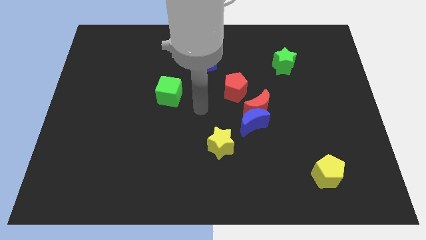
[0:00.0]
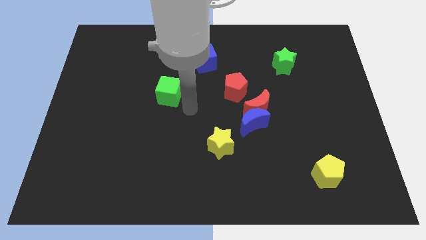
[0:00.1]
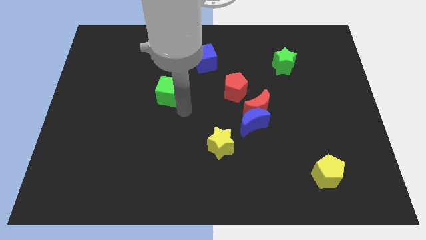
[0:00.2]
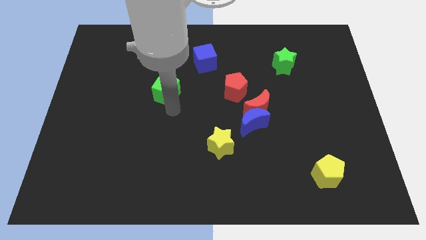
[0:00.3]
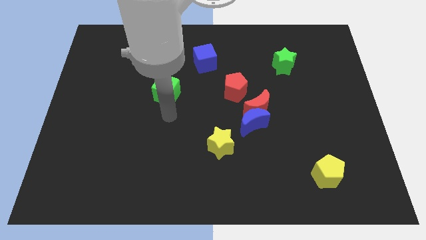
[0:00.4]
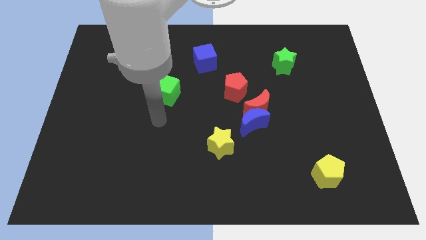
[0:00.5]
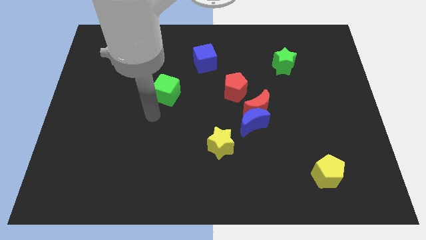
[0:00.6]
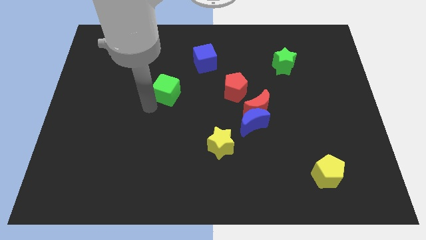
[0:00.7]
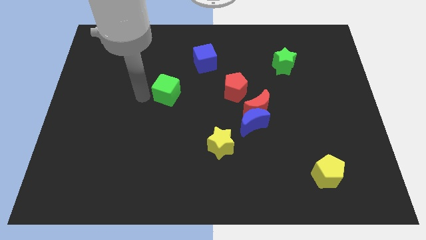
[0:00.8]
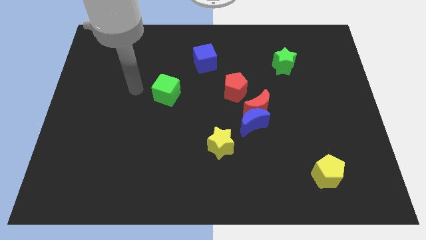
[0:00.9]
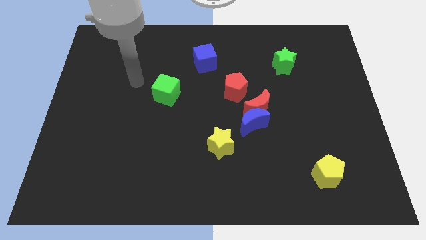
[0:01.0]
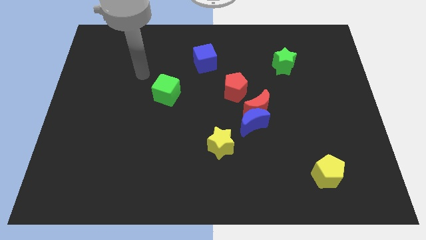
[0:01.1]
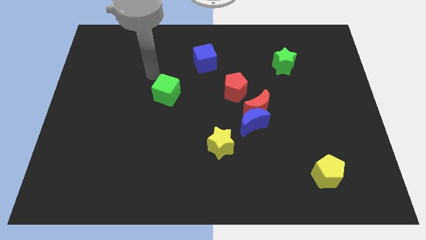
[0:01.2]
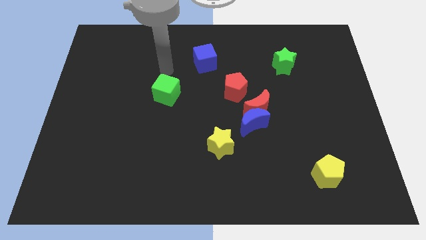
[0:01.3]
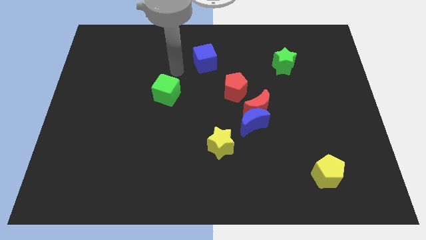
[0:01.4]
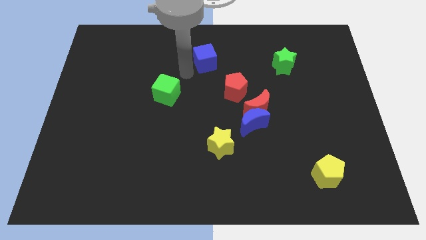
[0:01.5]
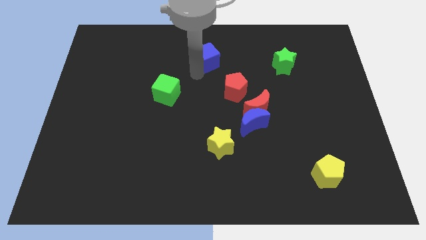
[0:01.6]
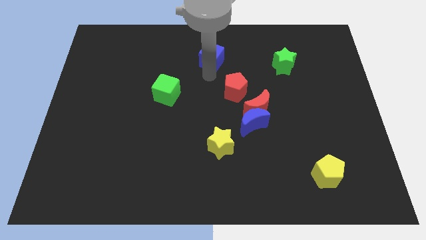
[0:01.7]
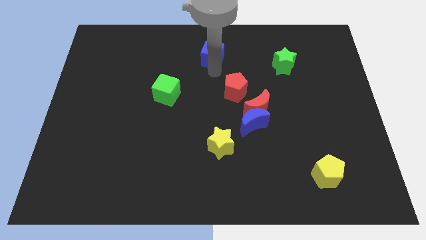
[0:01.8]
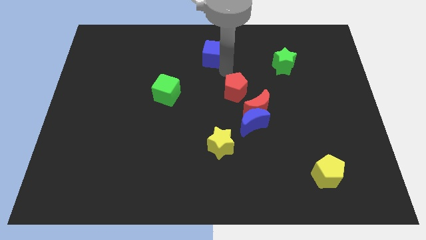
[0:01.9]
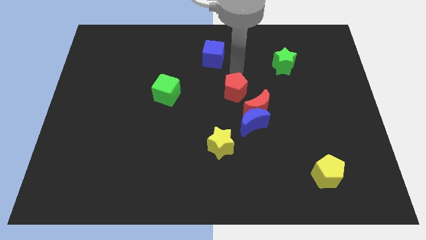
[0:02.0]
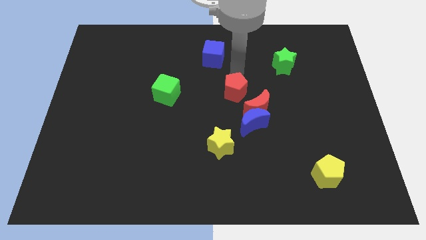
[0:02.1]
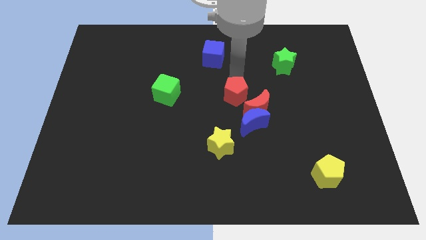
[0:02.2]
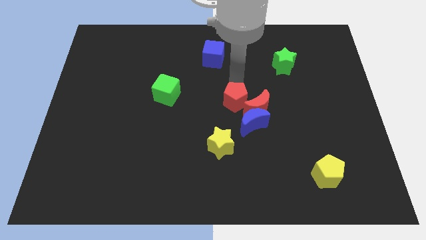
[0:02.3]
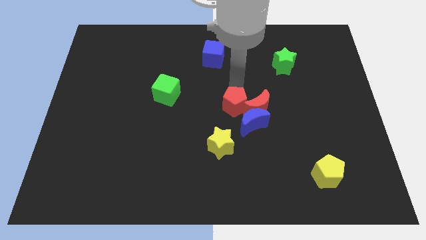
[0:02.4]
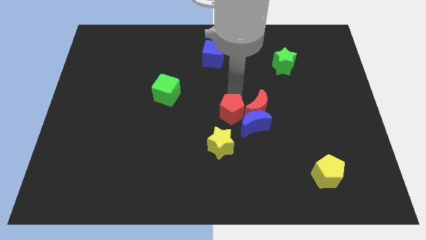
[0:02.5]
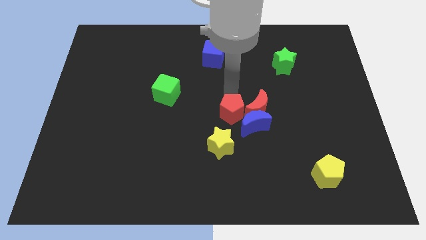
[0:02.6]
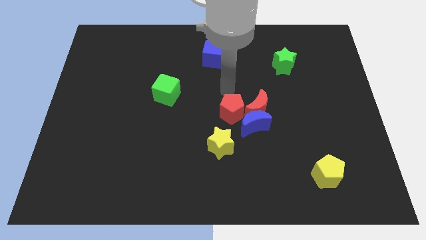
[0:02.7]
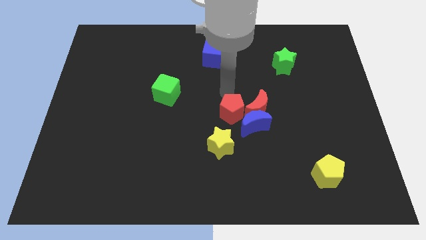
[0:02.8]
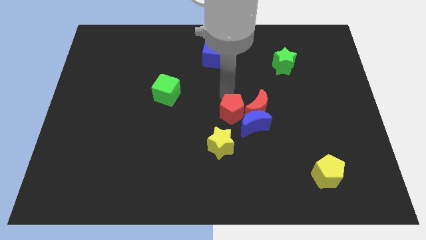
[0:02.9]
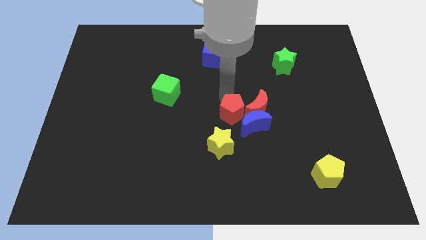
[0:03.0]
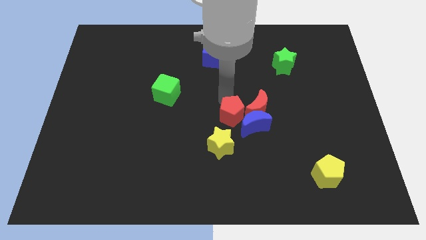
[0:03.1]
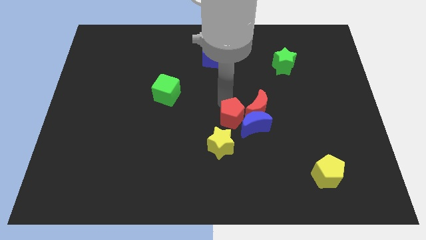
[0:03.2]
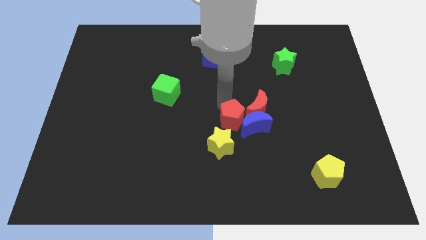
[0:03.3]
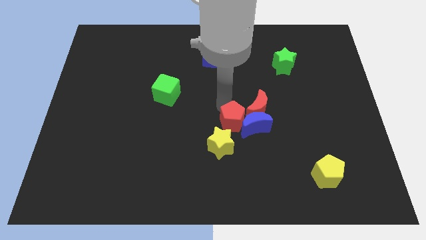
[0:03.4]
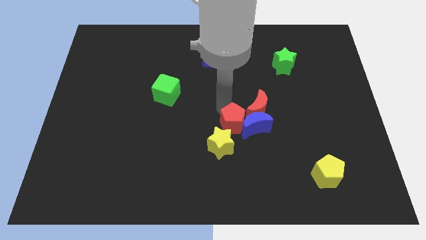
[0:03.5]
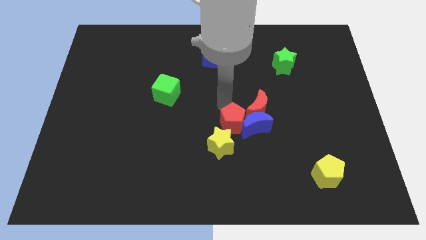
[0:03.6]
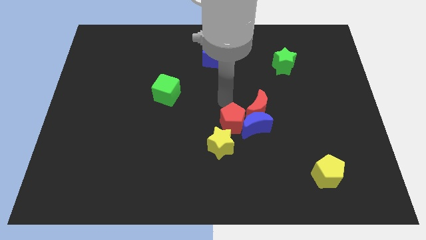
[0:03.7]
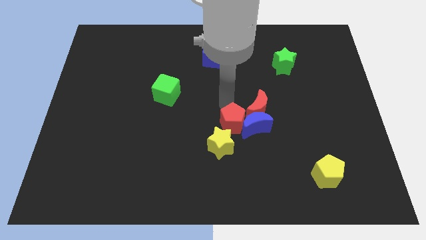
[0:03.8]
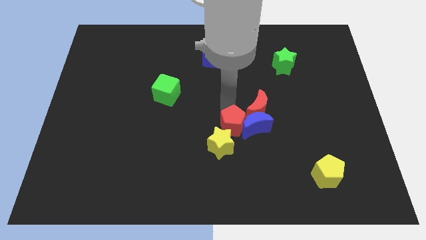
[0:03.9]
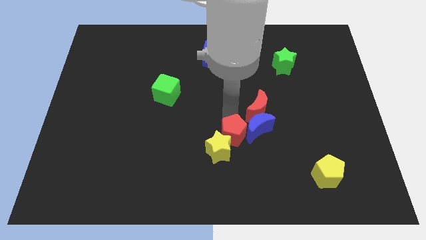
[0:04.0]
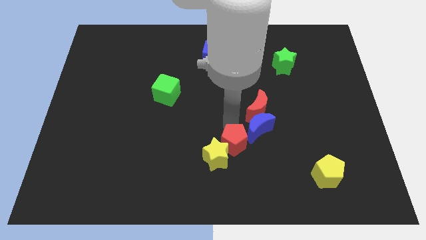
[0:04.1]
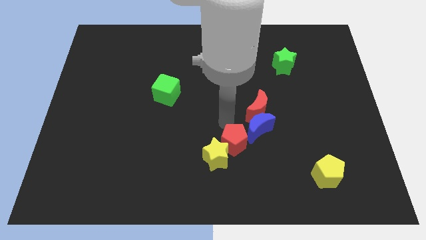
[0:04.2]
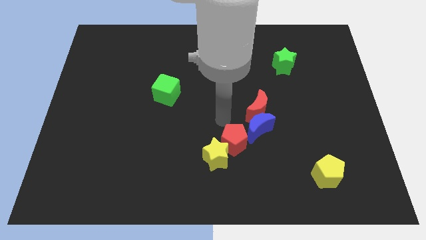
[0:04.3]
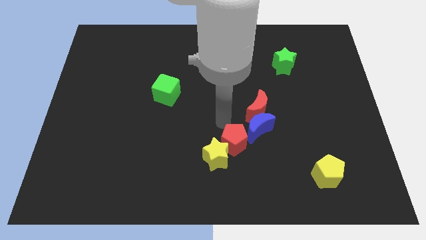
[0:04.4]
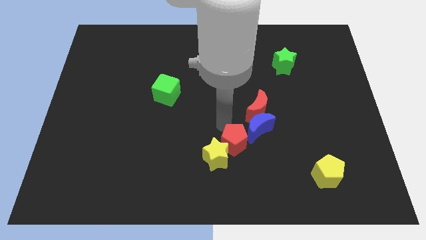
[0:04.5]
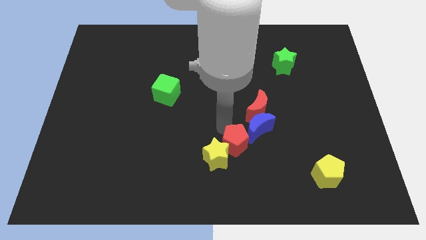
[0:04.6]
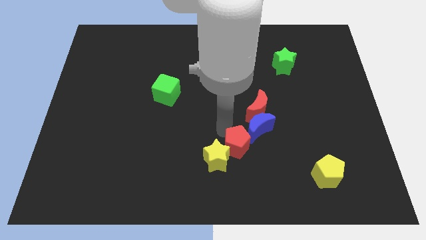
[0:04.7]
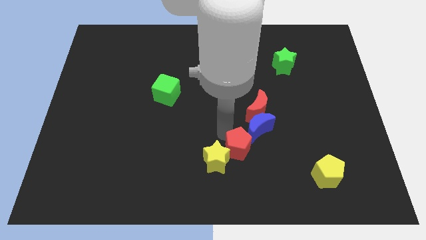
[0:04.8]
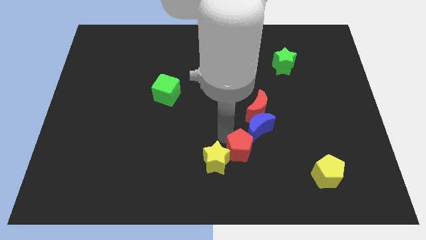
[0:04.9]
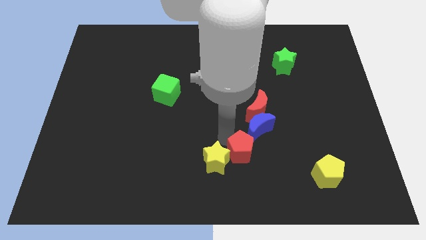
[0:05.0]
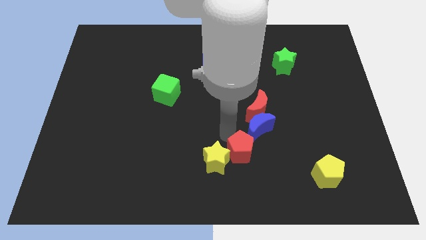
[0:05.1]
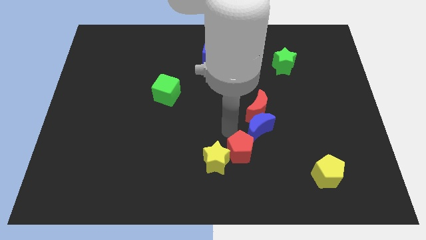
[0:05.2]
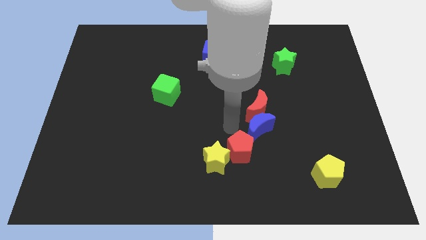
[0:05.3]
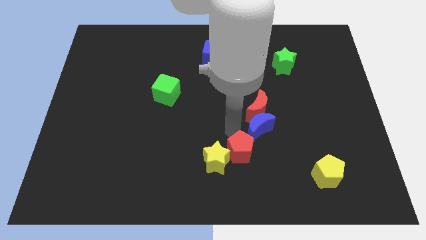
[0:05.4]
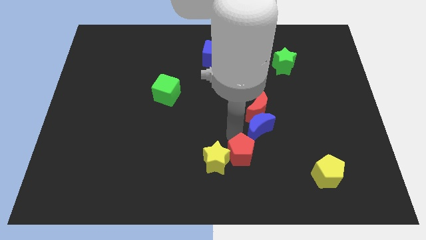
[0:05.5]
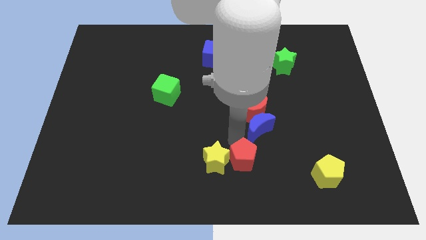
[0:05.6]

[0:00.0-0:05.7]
push the red pentagon to the bottom side
